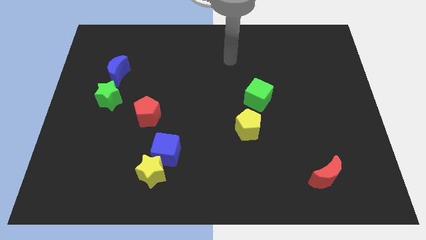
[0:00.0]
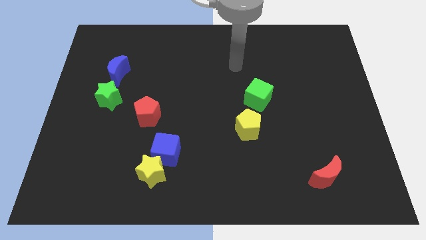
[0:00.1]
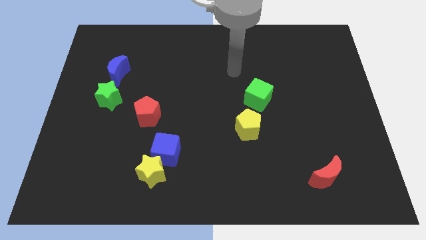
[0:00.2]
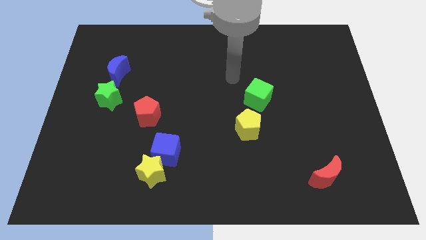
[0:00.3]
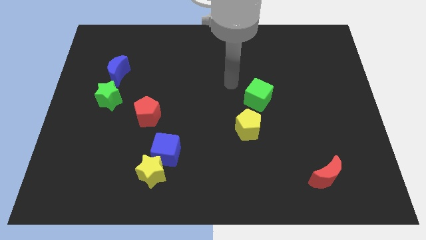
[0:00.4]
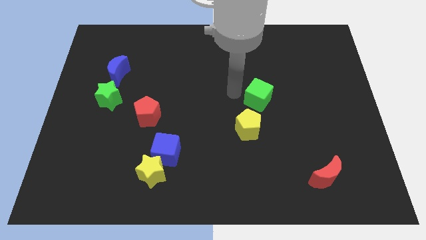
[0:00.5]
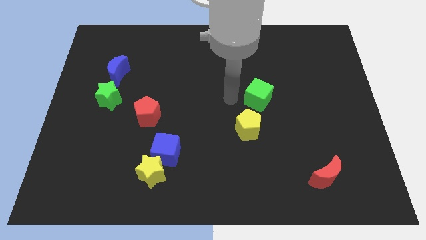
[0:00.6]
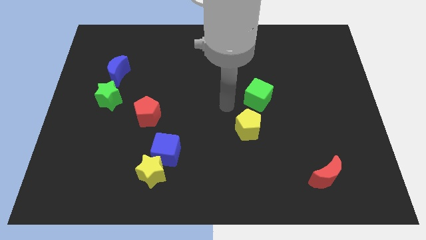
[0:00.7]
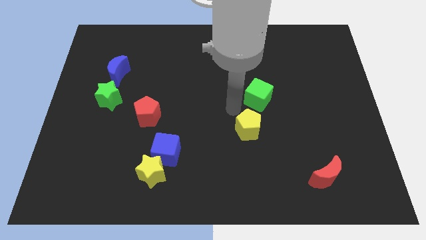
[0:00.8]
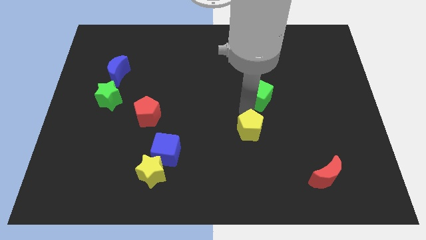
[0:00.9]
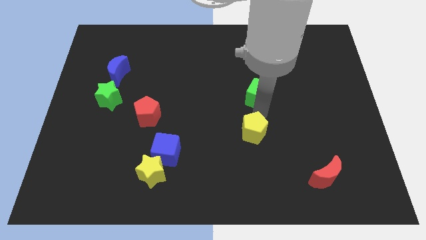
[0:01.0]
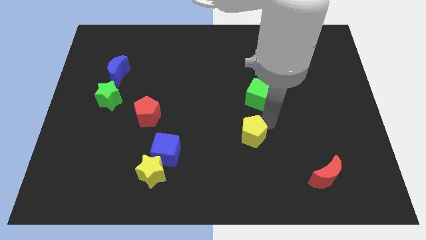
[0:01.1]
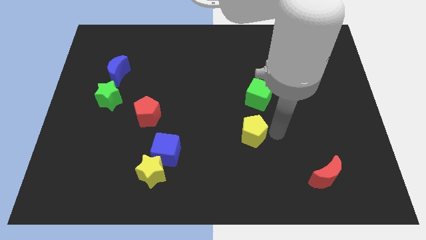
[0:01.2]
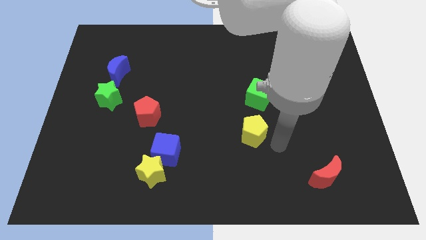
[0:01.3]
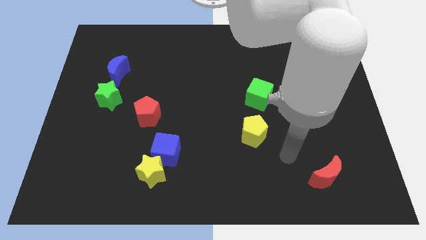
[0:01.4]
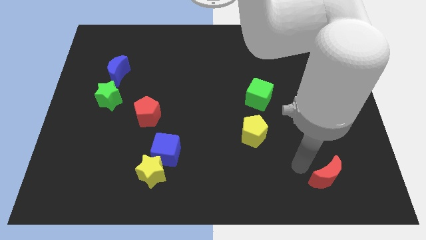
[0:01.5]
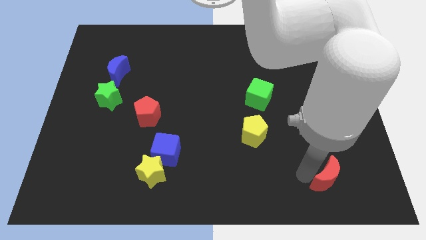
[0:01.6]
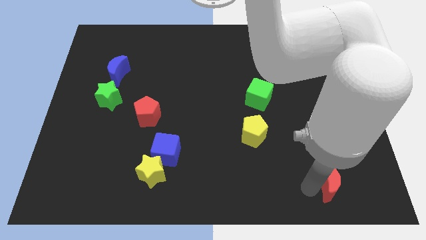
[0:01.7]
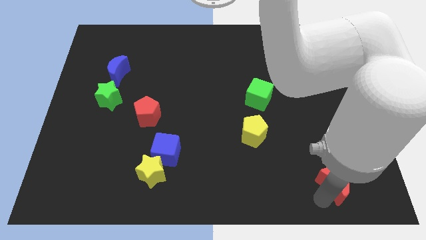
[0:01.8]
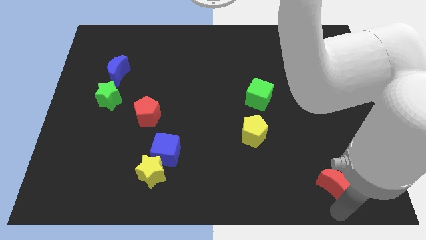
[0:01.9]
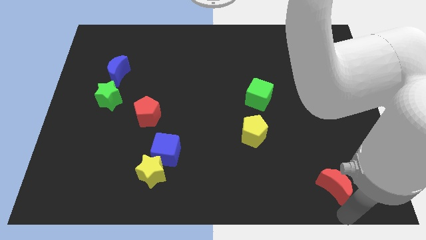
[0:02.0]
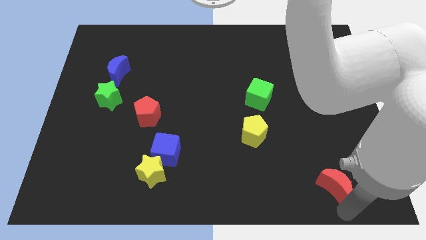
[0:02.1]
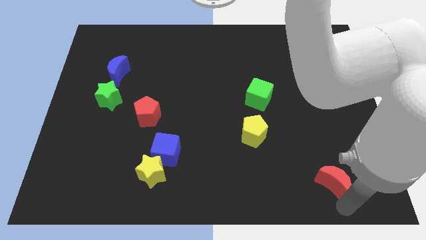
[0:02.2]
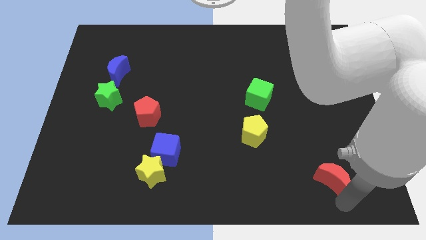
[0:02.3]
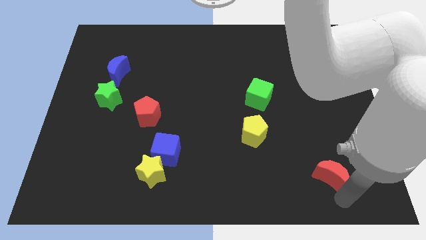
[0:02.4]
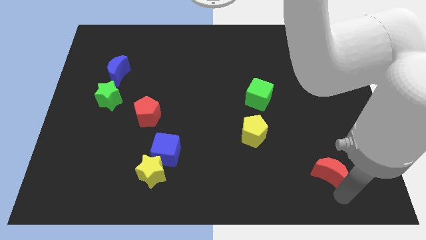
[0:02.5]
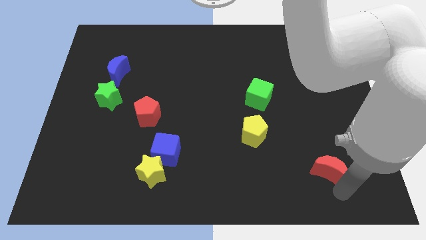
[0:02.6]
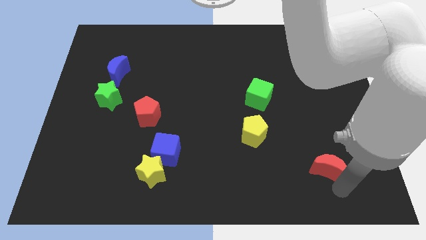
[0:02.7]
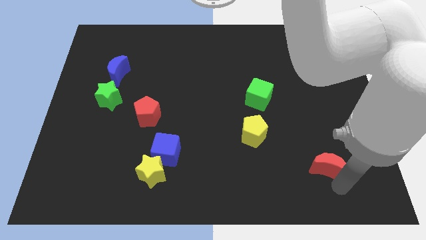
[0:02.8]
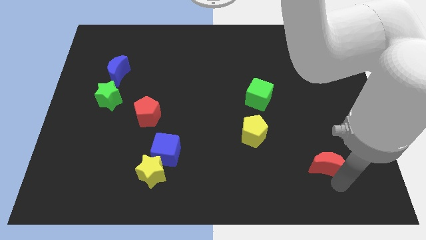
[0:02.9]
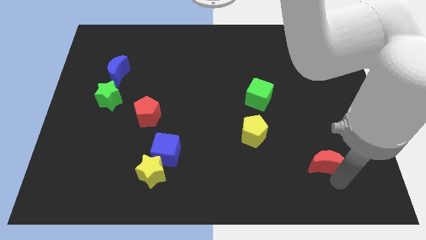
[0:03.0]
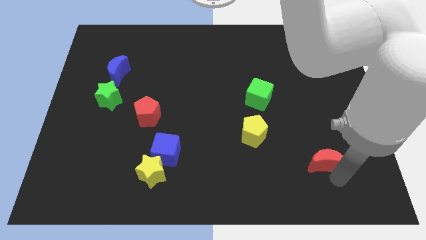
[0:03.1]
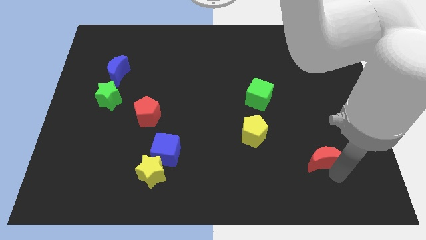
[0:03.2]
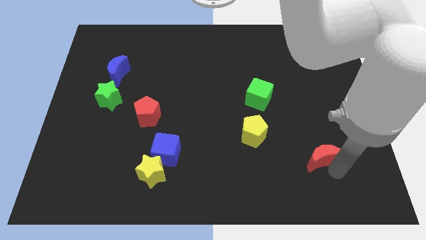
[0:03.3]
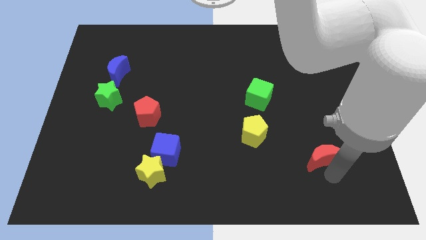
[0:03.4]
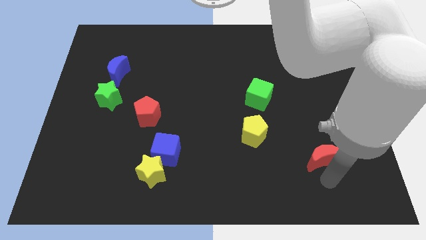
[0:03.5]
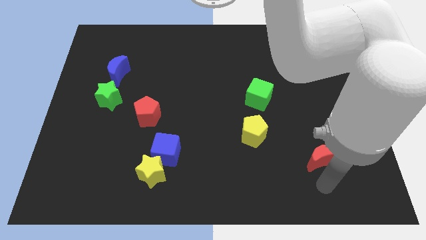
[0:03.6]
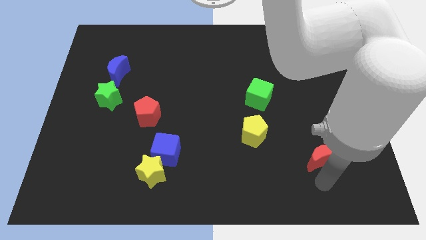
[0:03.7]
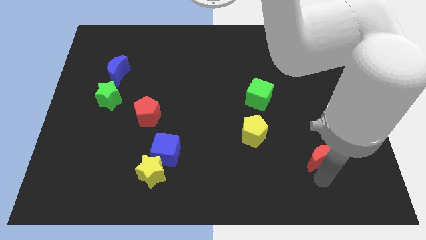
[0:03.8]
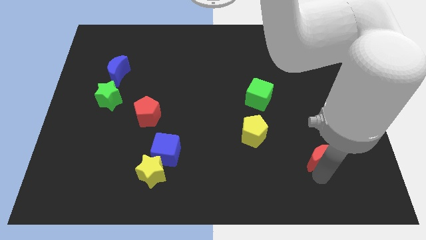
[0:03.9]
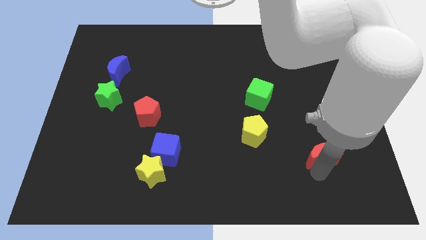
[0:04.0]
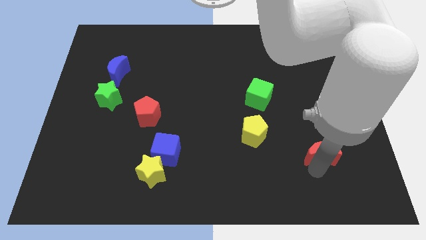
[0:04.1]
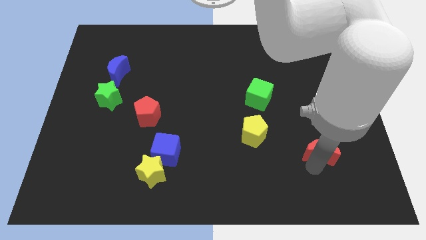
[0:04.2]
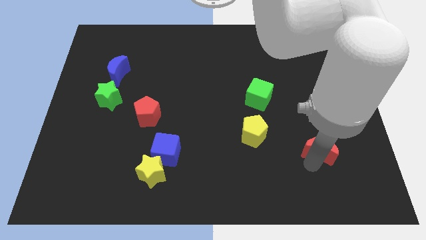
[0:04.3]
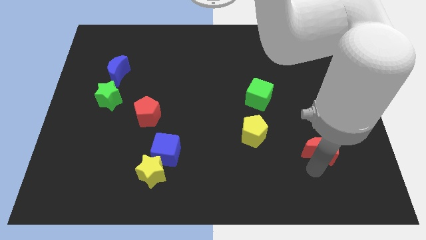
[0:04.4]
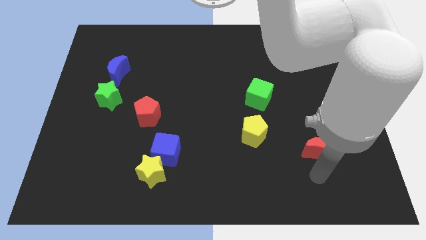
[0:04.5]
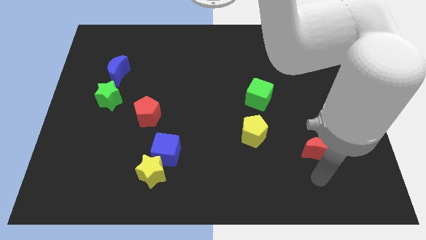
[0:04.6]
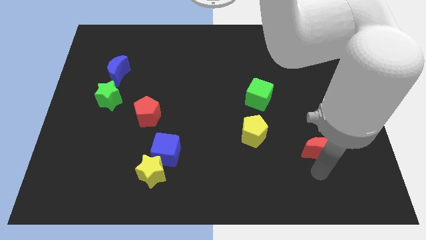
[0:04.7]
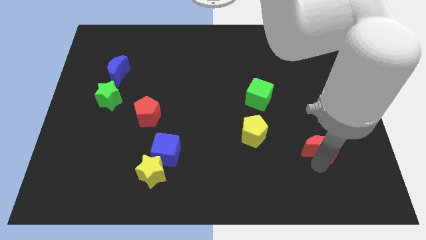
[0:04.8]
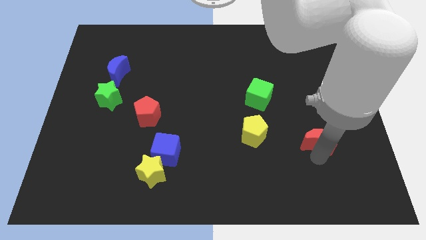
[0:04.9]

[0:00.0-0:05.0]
push the red moon a little upwards

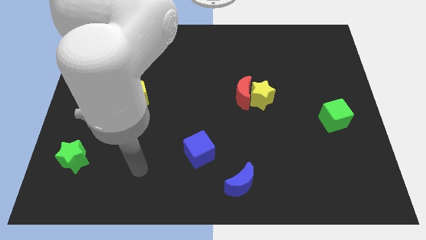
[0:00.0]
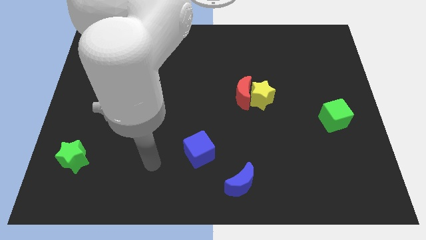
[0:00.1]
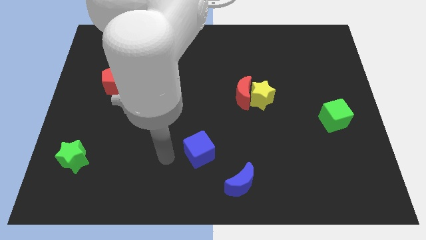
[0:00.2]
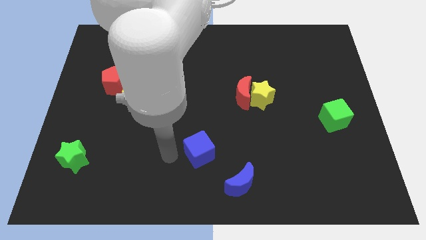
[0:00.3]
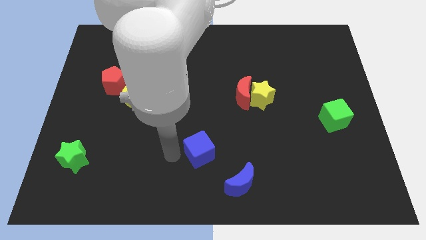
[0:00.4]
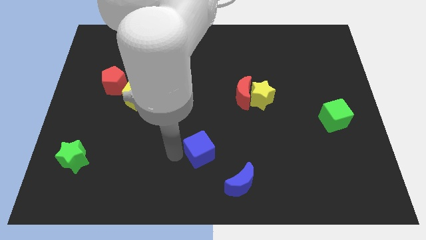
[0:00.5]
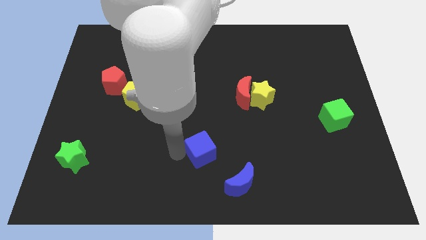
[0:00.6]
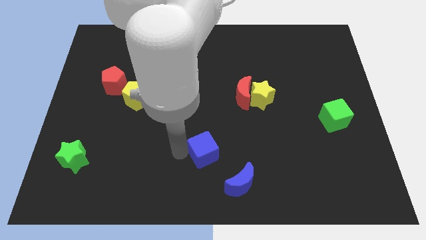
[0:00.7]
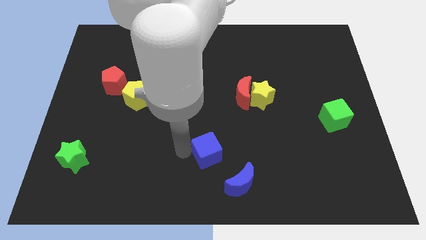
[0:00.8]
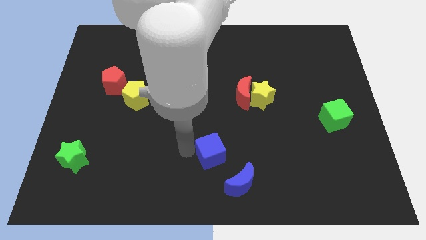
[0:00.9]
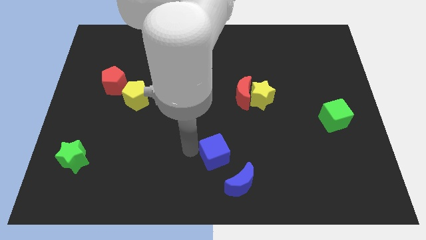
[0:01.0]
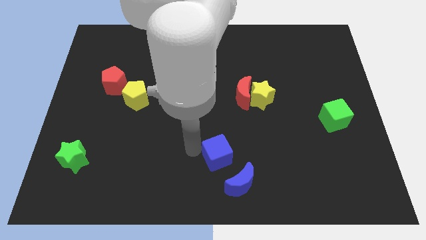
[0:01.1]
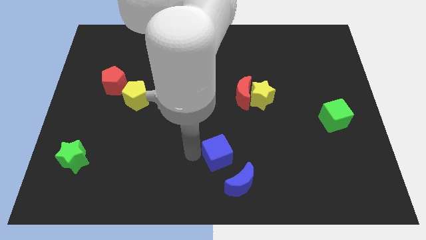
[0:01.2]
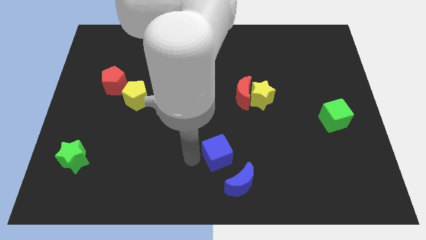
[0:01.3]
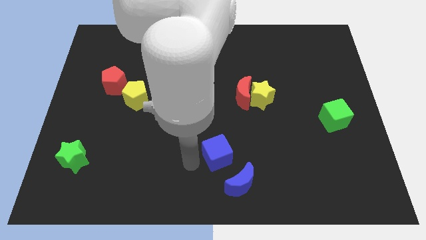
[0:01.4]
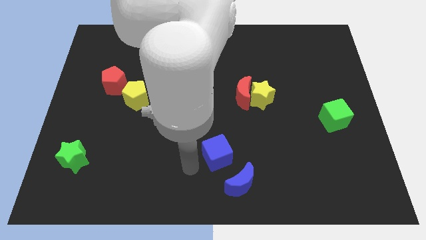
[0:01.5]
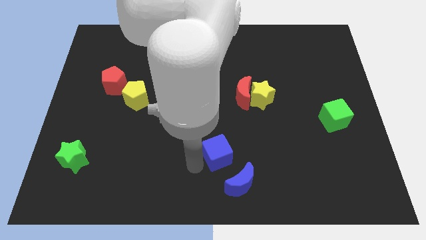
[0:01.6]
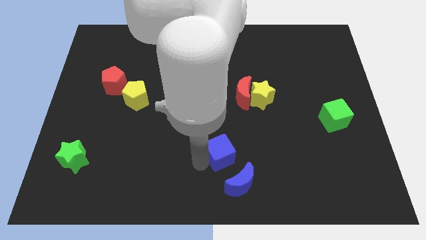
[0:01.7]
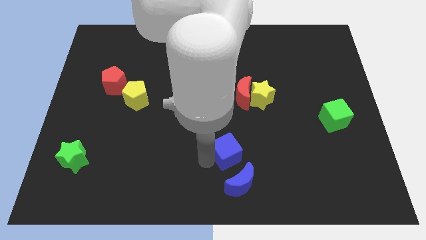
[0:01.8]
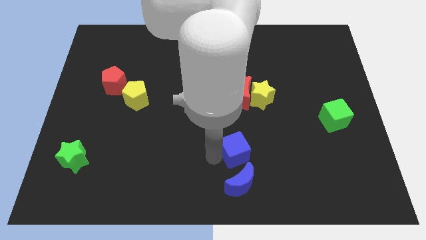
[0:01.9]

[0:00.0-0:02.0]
slightly slide the blue cube to the right

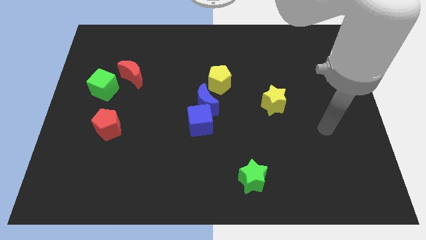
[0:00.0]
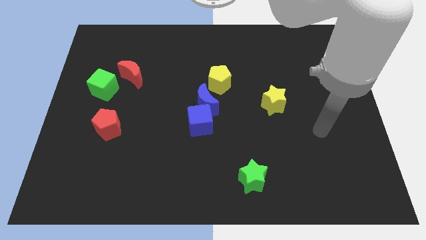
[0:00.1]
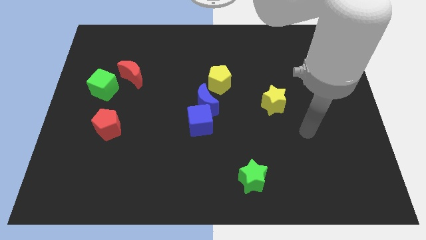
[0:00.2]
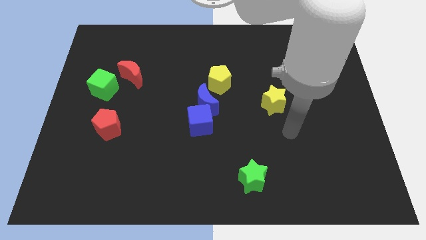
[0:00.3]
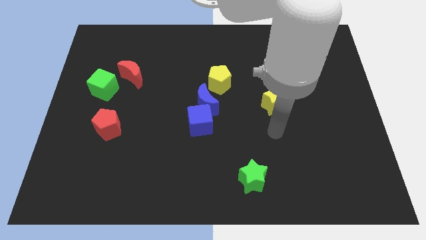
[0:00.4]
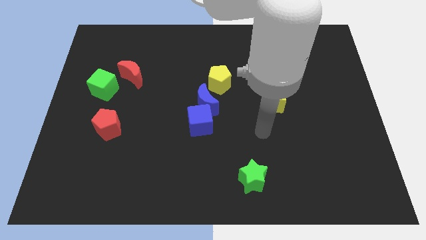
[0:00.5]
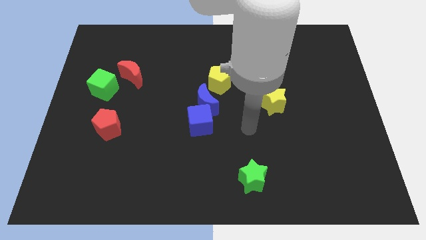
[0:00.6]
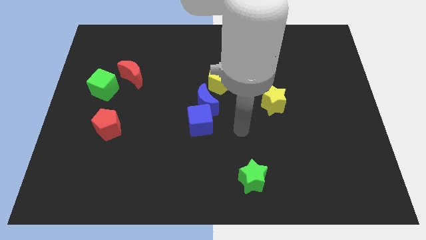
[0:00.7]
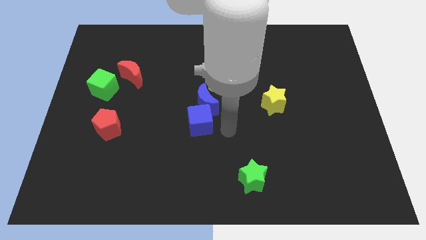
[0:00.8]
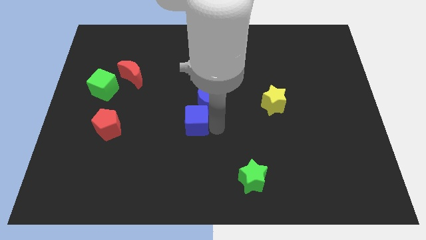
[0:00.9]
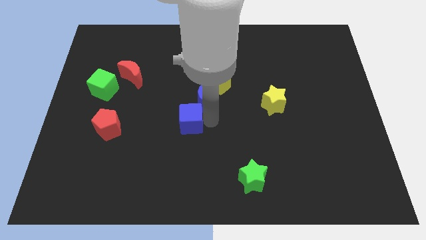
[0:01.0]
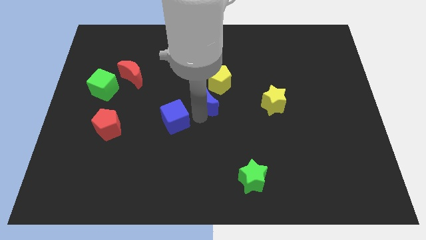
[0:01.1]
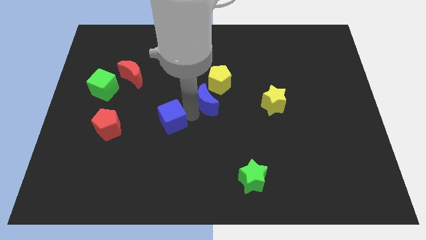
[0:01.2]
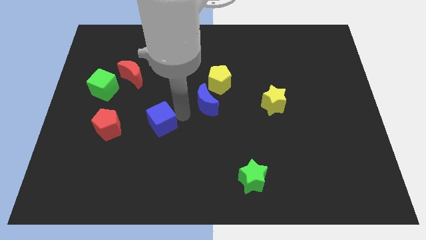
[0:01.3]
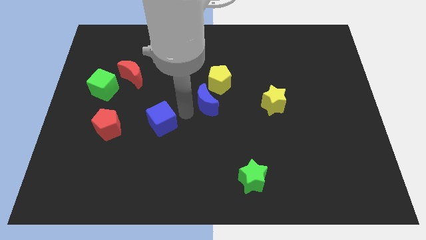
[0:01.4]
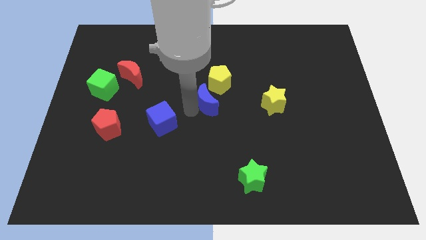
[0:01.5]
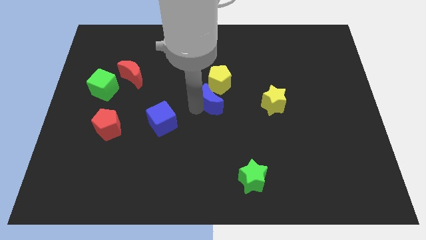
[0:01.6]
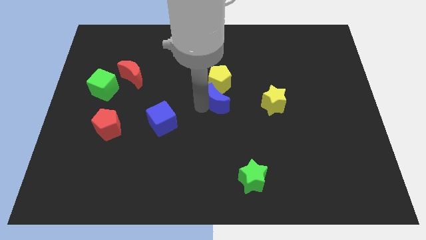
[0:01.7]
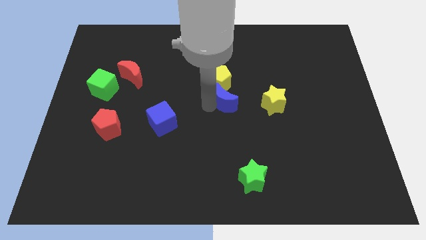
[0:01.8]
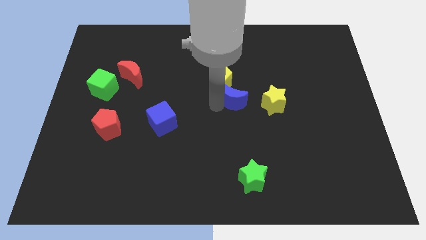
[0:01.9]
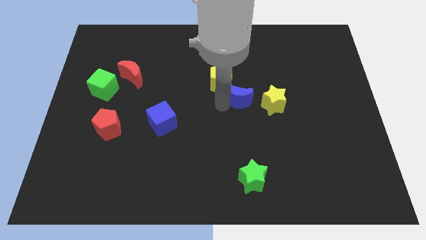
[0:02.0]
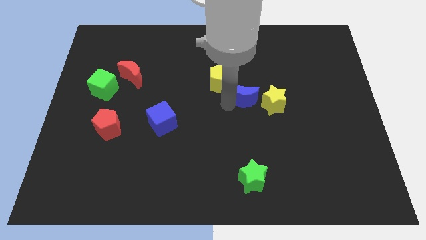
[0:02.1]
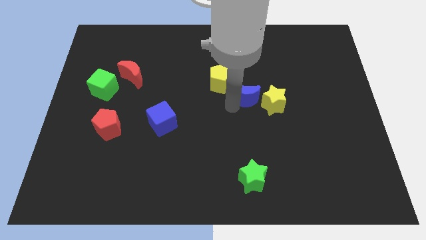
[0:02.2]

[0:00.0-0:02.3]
push the blue moon diagonally upwards and right a bit
